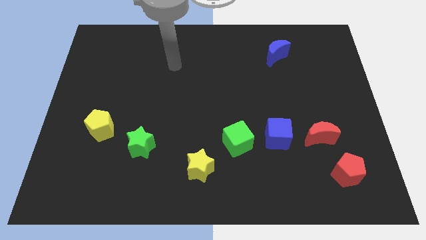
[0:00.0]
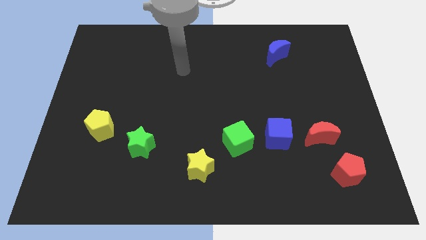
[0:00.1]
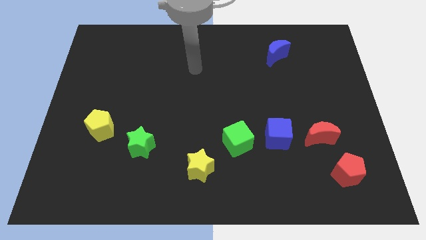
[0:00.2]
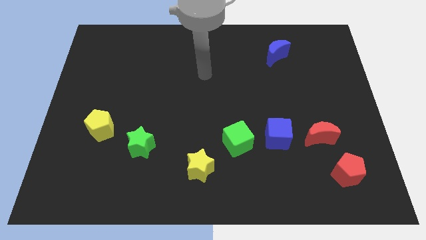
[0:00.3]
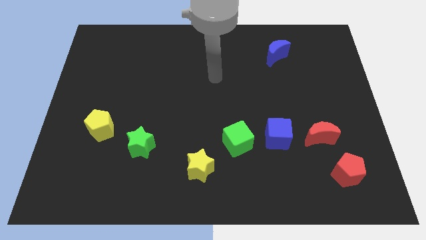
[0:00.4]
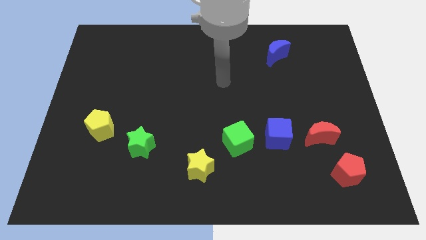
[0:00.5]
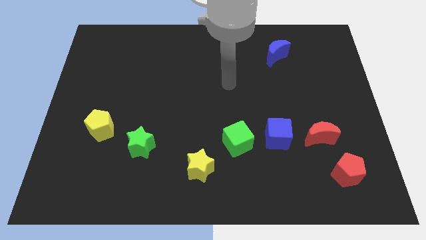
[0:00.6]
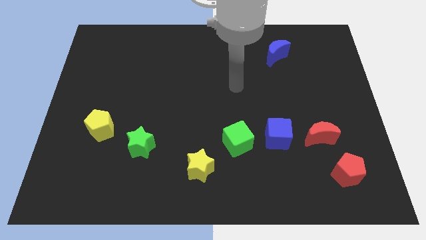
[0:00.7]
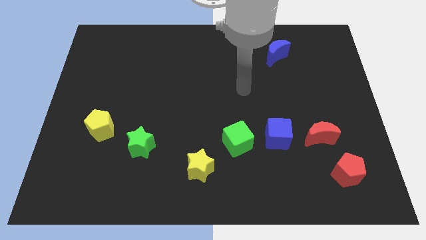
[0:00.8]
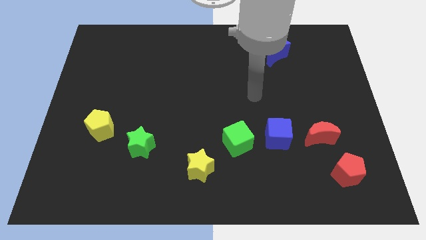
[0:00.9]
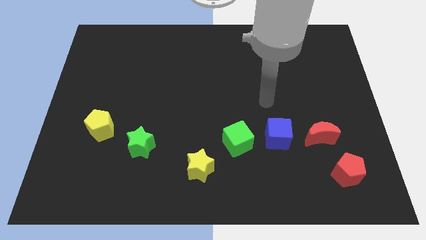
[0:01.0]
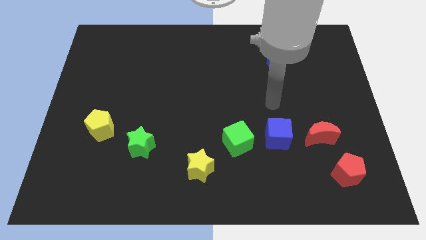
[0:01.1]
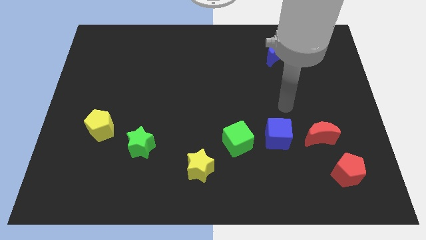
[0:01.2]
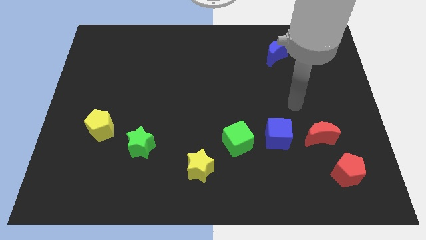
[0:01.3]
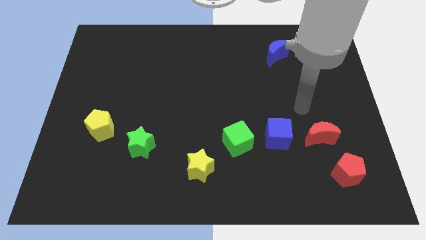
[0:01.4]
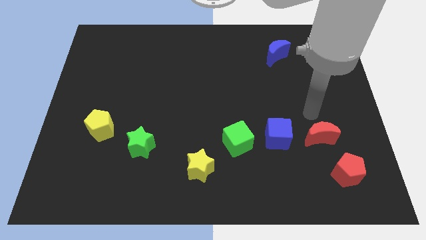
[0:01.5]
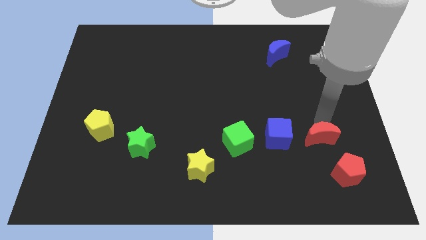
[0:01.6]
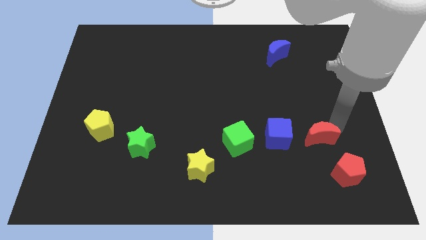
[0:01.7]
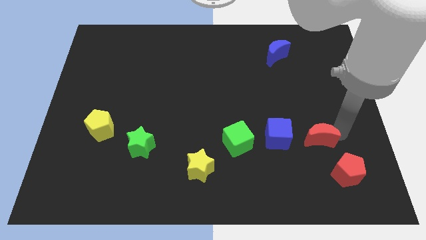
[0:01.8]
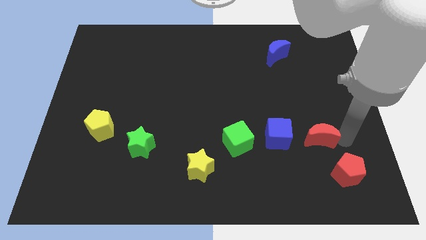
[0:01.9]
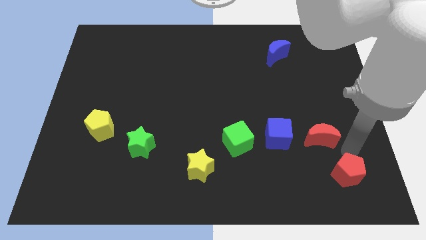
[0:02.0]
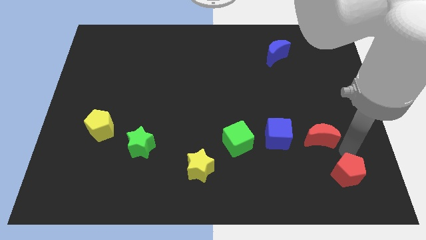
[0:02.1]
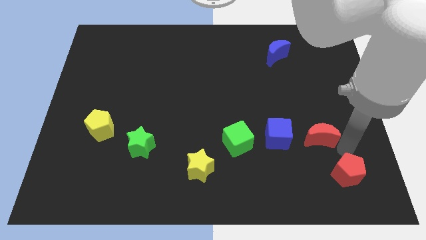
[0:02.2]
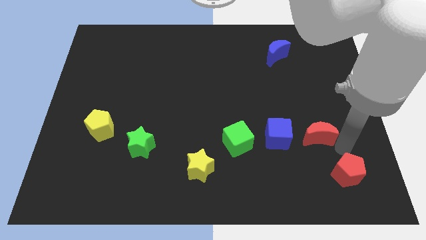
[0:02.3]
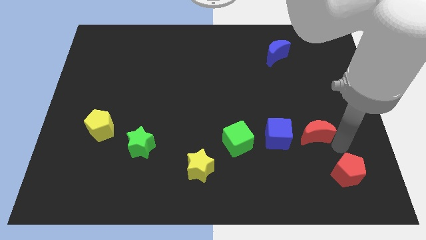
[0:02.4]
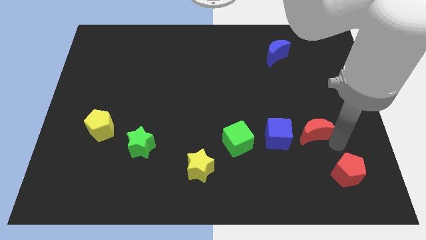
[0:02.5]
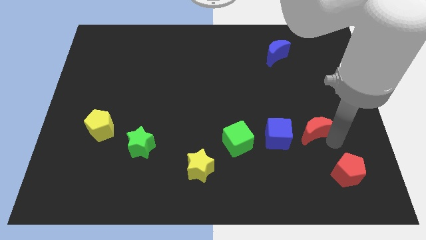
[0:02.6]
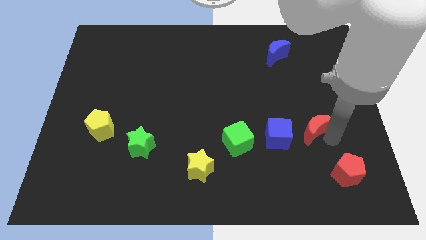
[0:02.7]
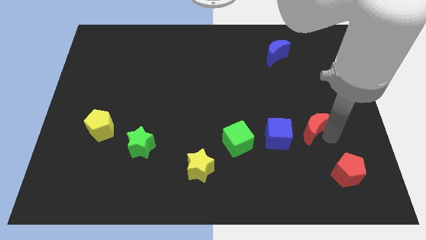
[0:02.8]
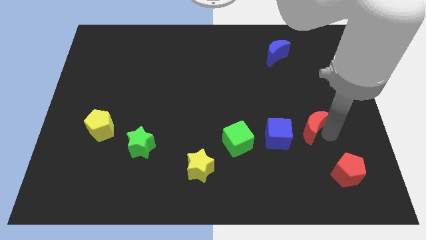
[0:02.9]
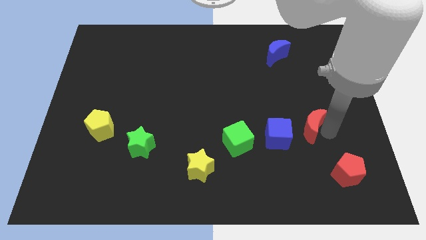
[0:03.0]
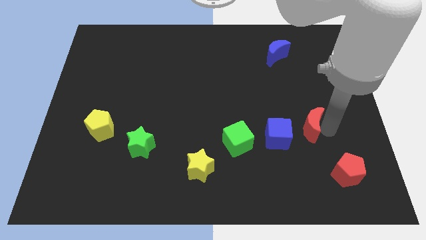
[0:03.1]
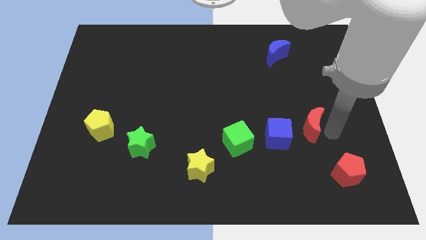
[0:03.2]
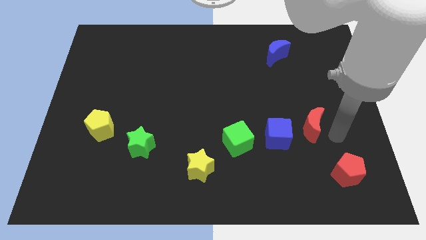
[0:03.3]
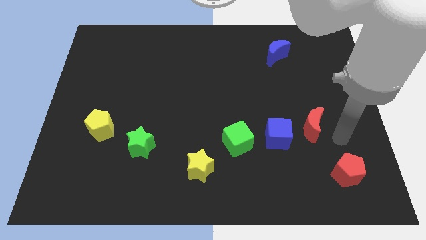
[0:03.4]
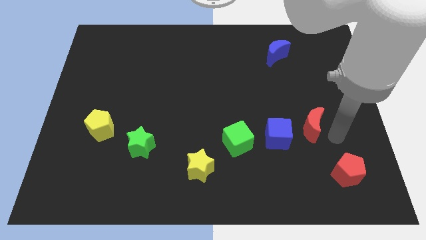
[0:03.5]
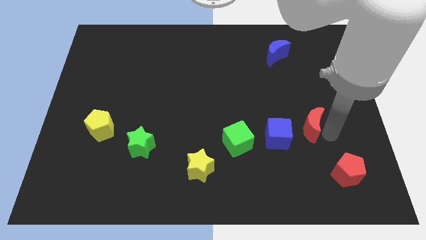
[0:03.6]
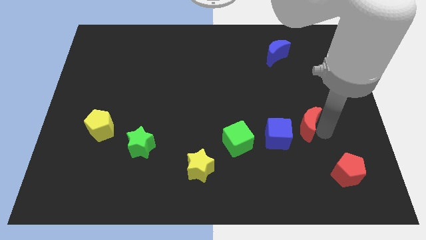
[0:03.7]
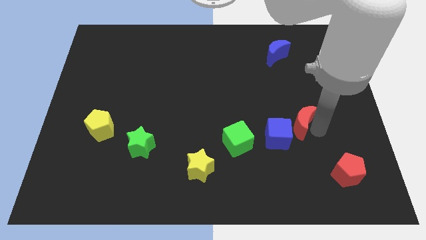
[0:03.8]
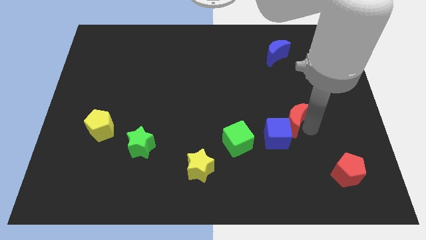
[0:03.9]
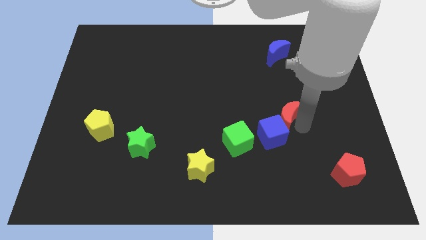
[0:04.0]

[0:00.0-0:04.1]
slightly slide the red moon upwards and then left

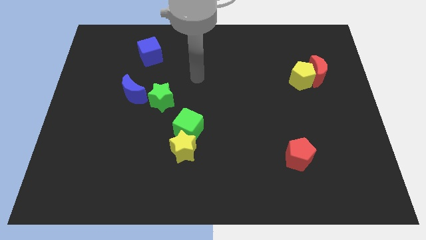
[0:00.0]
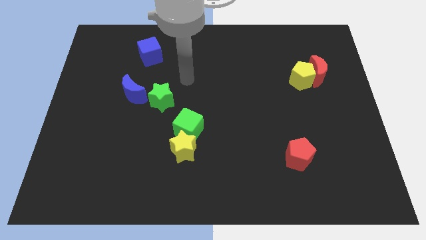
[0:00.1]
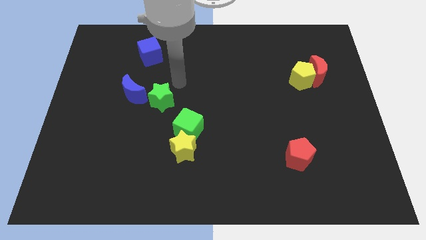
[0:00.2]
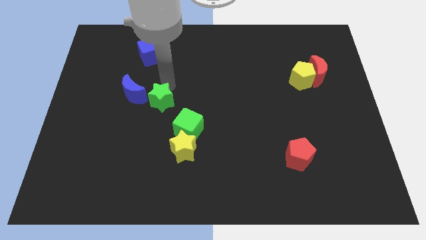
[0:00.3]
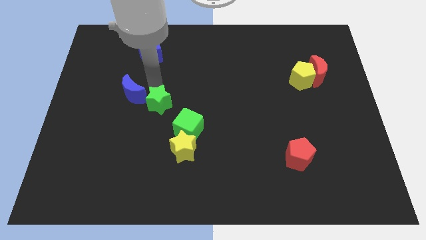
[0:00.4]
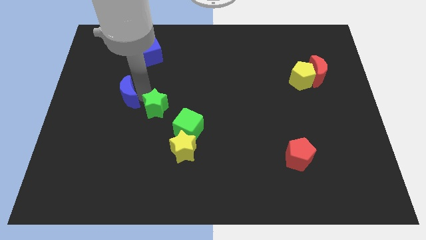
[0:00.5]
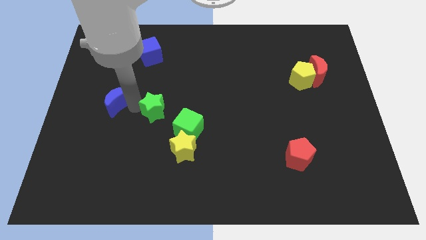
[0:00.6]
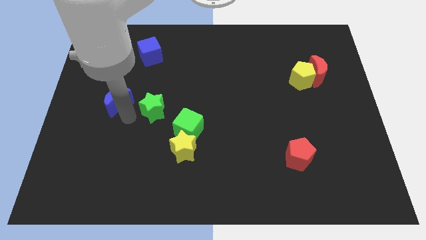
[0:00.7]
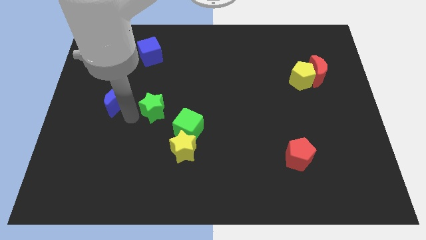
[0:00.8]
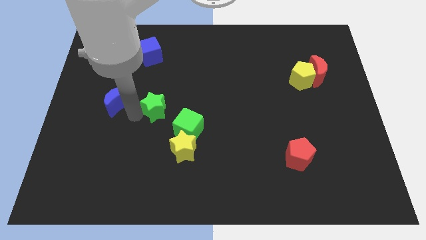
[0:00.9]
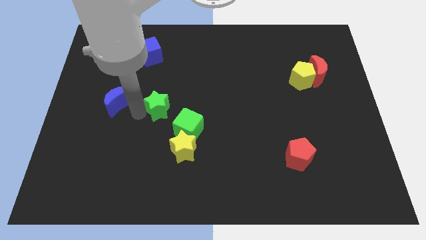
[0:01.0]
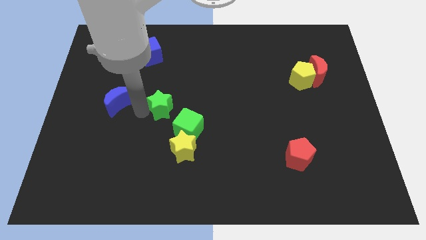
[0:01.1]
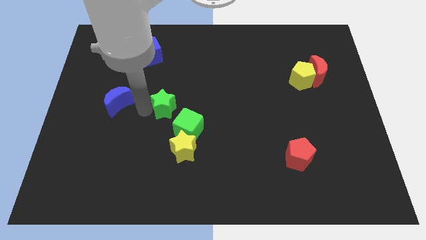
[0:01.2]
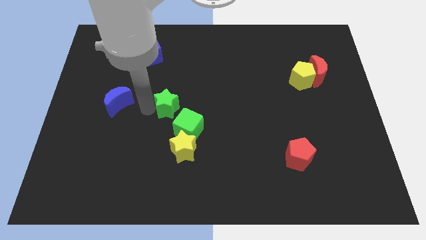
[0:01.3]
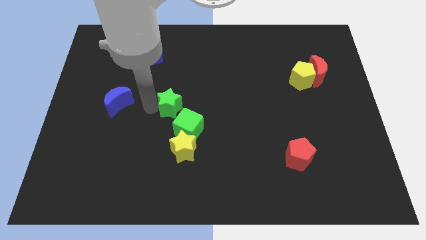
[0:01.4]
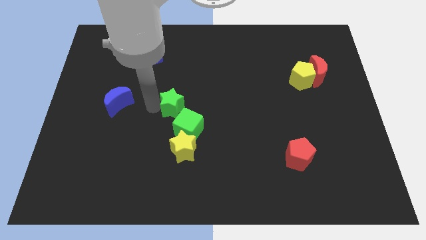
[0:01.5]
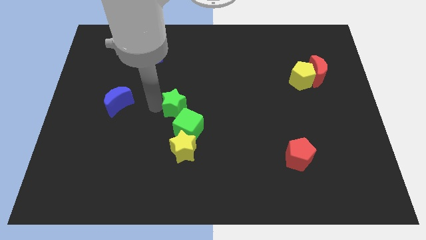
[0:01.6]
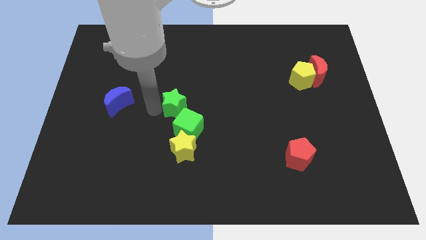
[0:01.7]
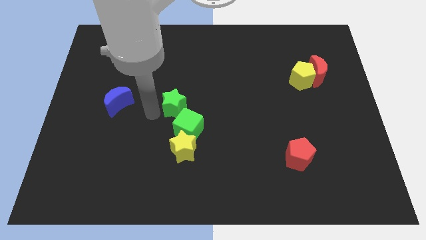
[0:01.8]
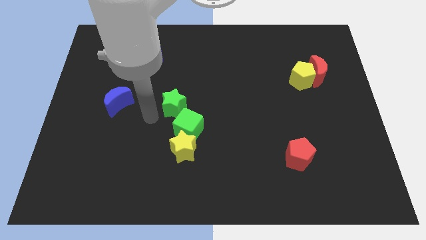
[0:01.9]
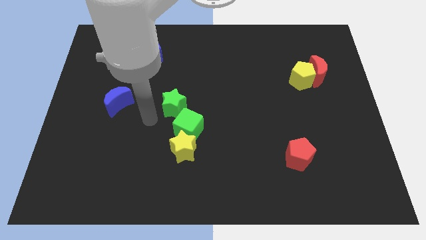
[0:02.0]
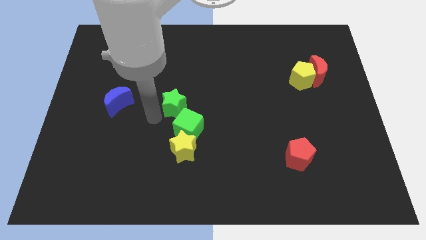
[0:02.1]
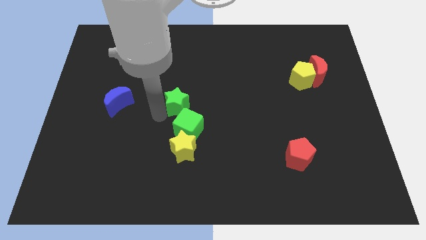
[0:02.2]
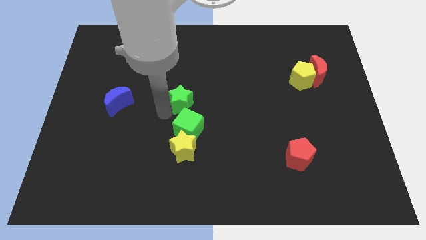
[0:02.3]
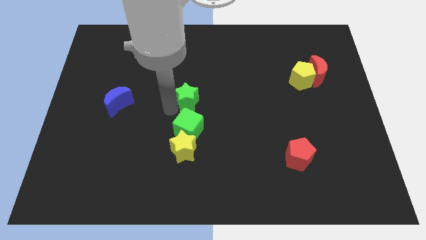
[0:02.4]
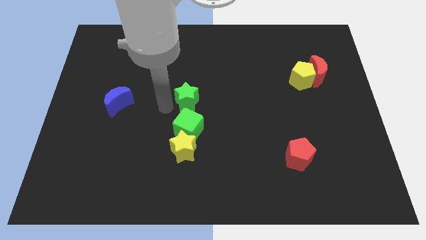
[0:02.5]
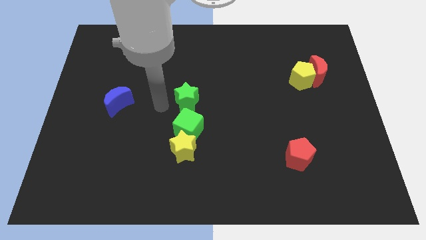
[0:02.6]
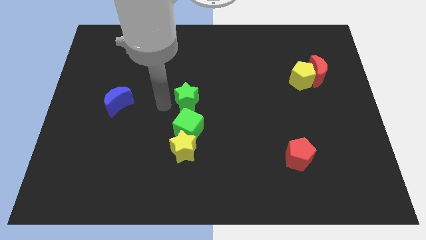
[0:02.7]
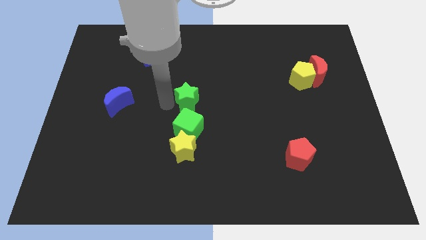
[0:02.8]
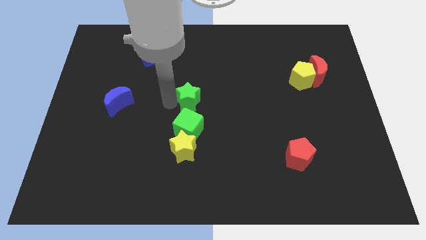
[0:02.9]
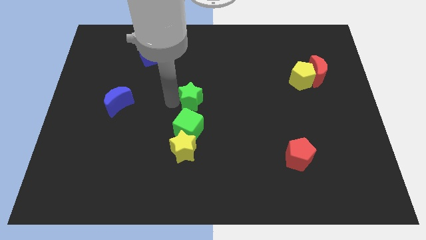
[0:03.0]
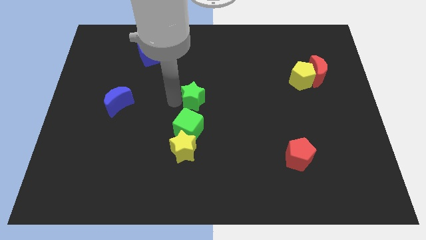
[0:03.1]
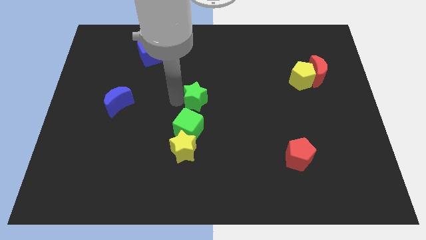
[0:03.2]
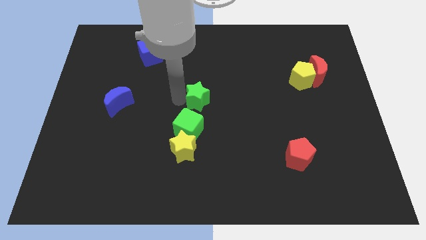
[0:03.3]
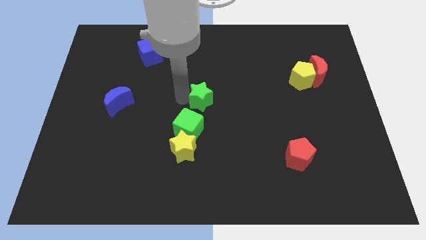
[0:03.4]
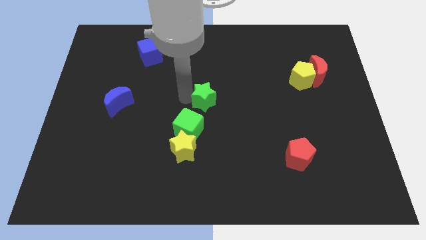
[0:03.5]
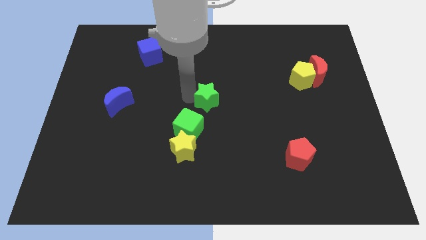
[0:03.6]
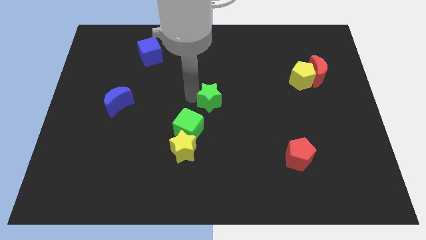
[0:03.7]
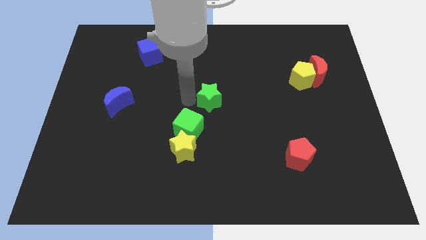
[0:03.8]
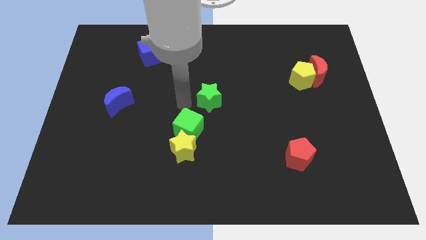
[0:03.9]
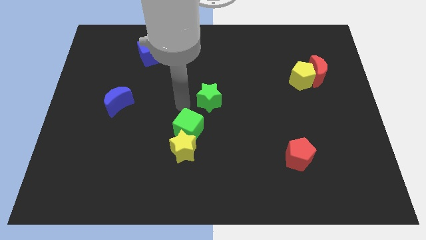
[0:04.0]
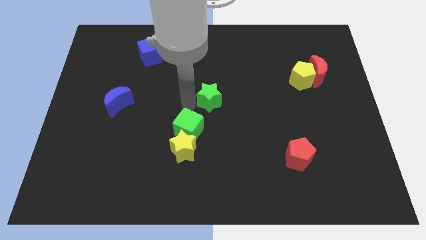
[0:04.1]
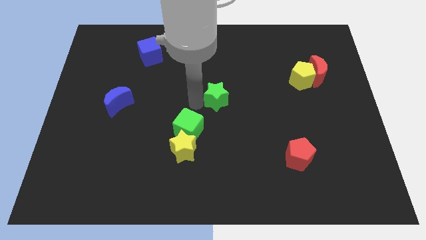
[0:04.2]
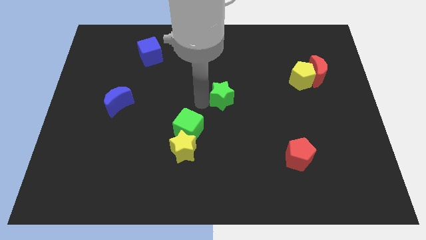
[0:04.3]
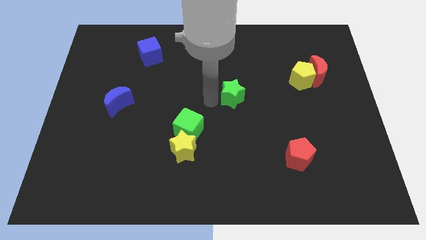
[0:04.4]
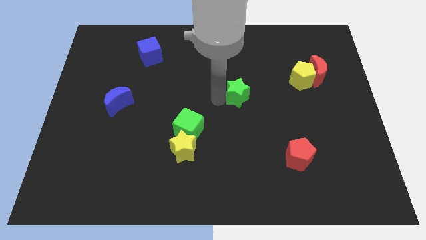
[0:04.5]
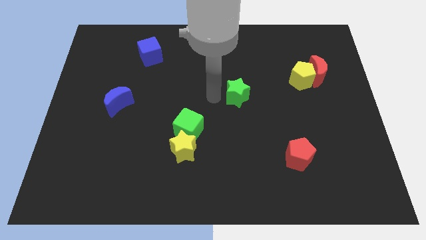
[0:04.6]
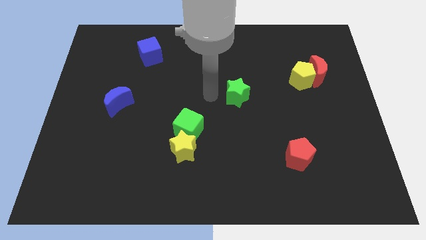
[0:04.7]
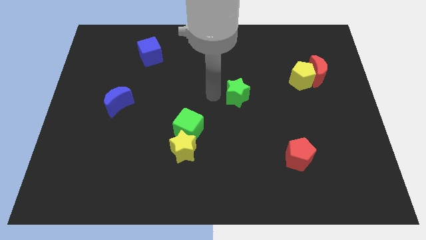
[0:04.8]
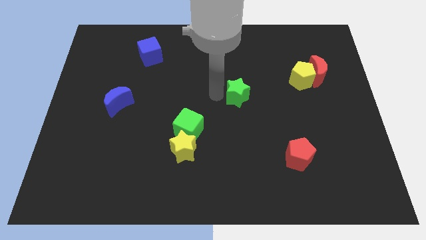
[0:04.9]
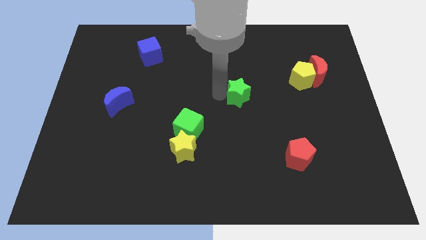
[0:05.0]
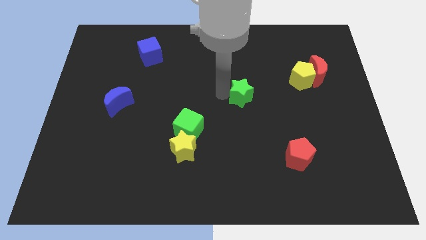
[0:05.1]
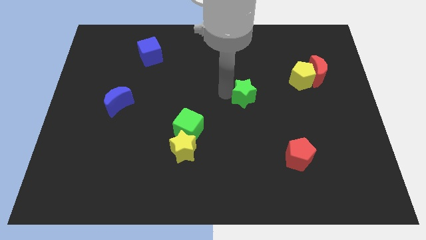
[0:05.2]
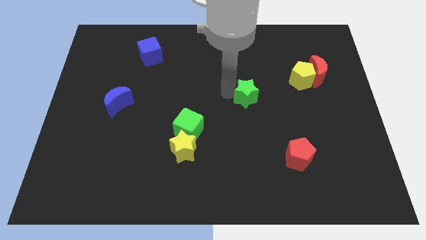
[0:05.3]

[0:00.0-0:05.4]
push the green star to the right
